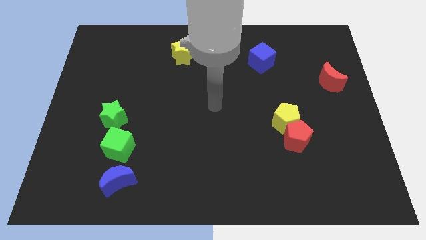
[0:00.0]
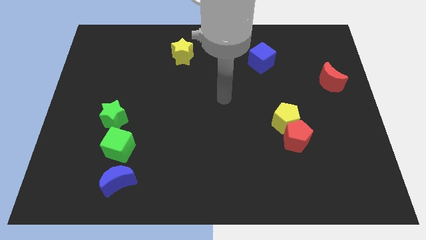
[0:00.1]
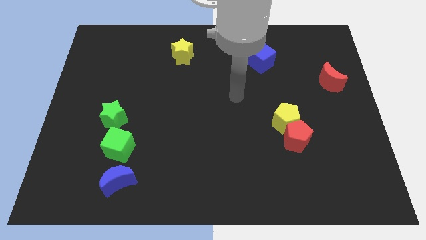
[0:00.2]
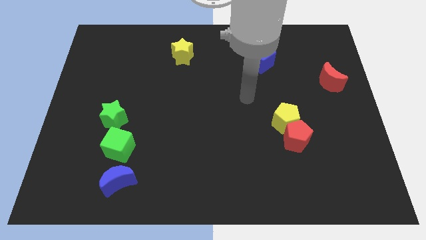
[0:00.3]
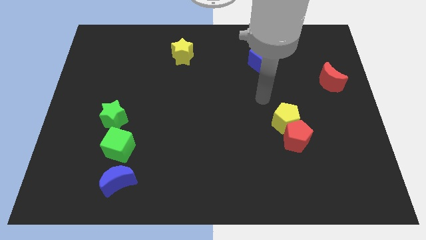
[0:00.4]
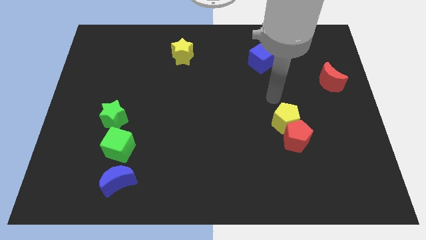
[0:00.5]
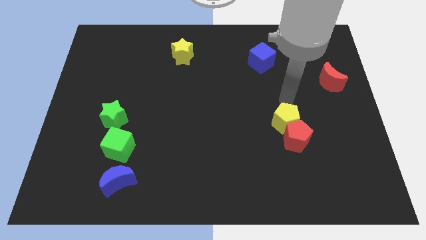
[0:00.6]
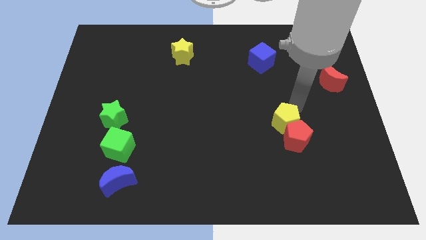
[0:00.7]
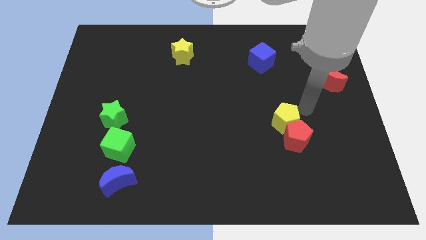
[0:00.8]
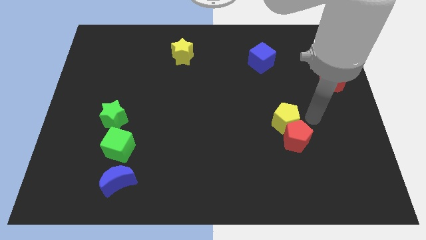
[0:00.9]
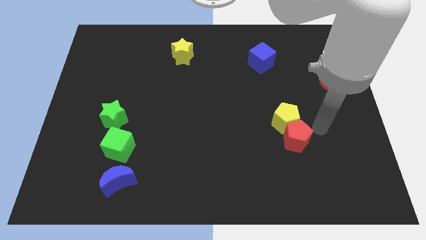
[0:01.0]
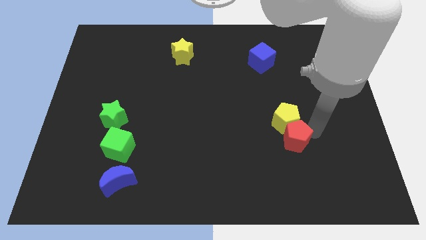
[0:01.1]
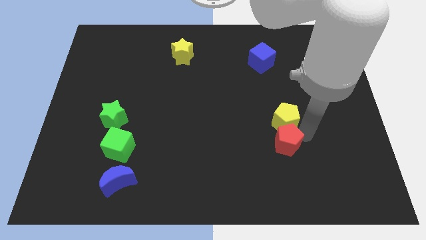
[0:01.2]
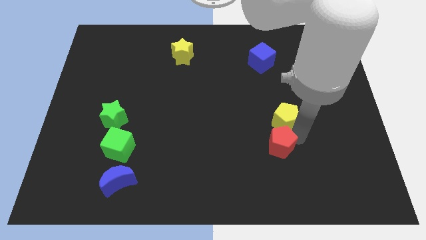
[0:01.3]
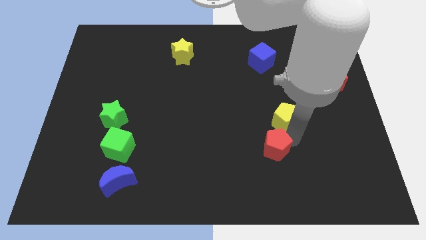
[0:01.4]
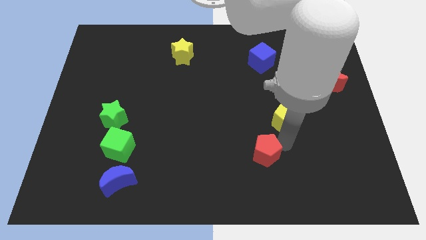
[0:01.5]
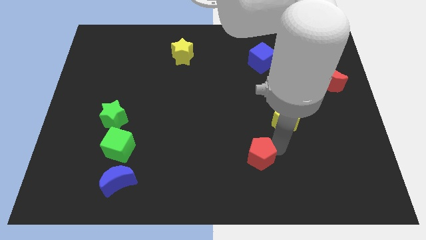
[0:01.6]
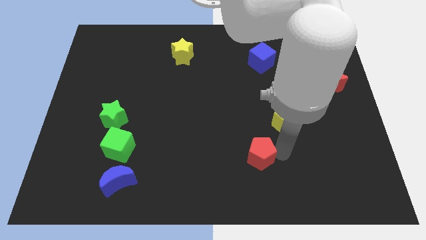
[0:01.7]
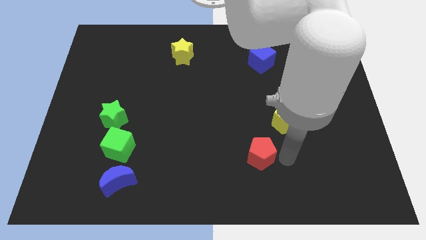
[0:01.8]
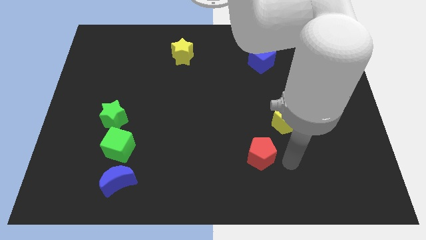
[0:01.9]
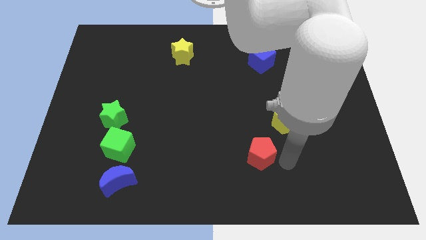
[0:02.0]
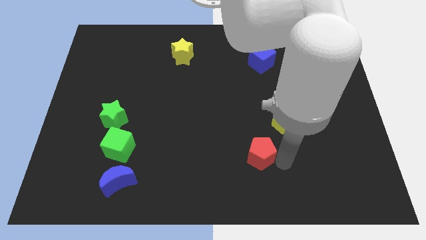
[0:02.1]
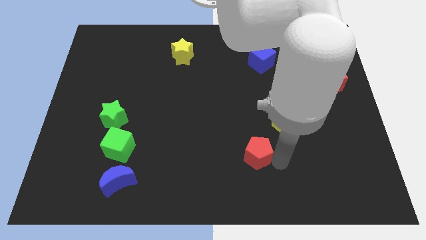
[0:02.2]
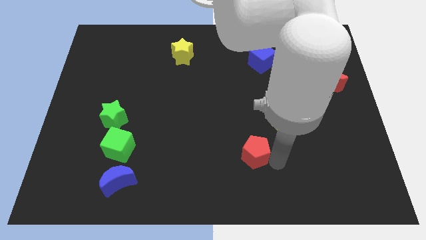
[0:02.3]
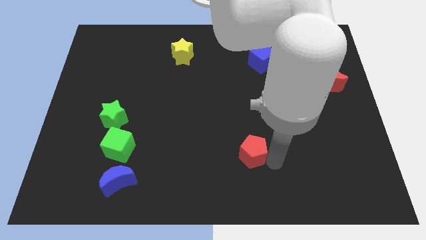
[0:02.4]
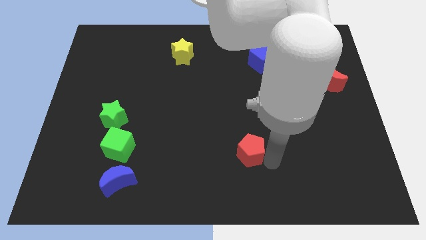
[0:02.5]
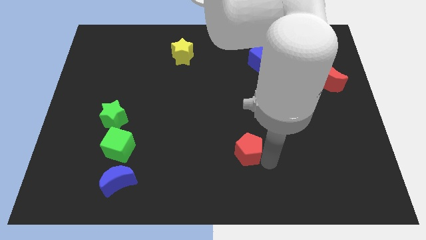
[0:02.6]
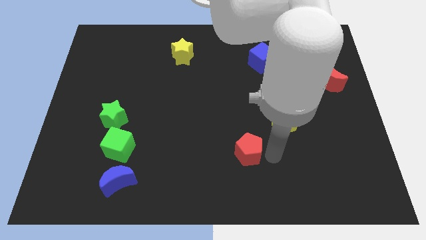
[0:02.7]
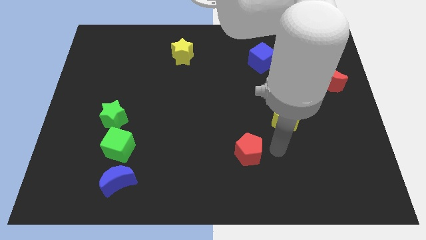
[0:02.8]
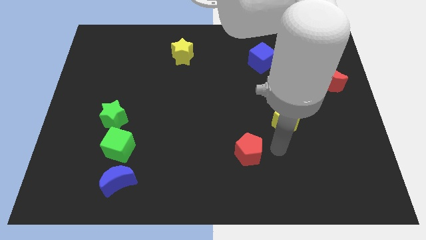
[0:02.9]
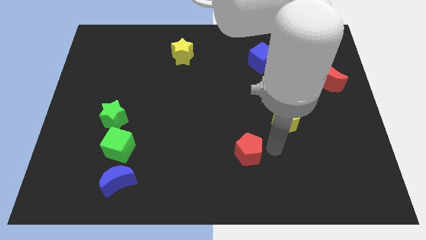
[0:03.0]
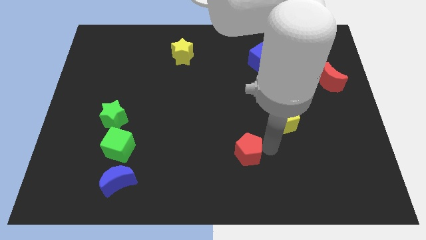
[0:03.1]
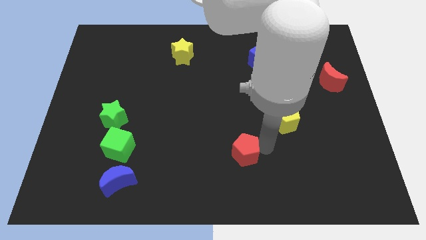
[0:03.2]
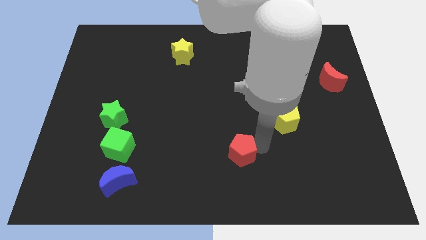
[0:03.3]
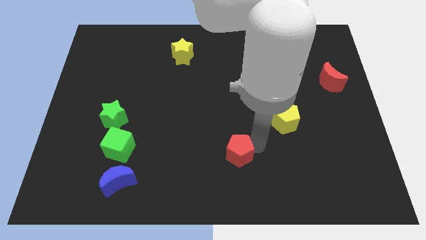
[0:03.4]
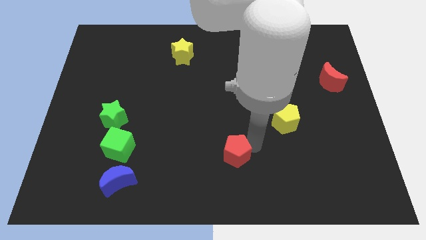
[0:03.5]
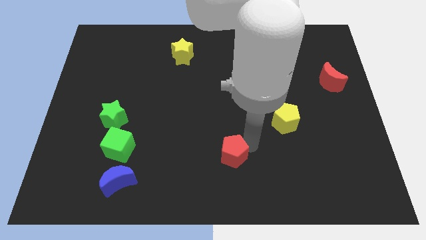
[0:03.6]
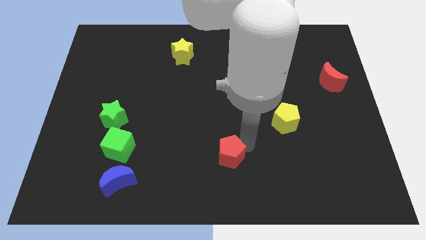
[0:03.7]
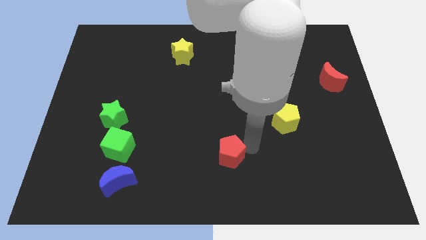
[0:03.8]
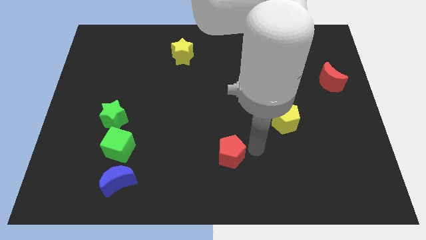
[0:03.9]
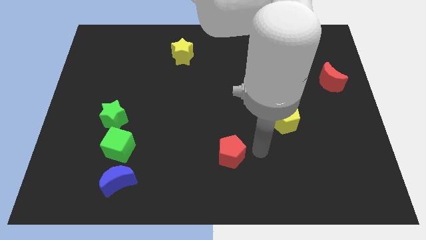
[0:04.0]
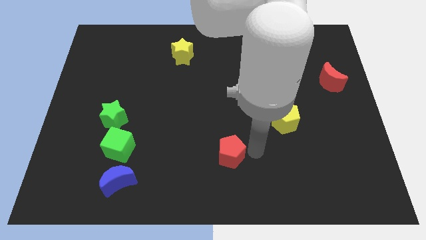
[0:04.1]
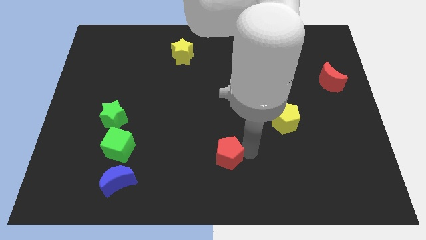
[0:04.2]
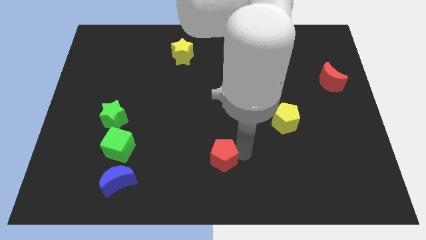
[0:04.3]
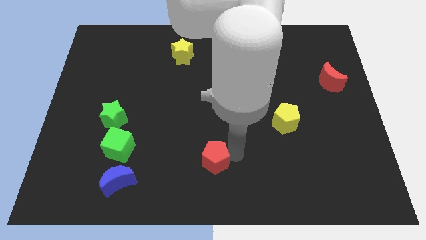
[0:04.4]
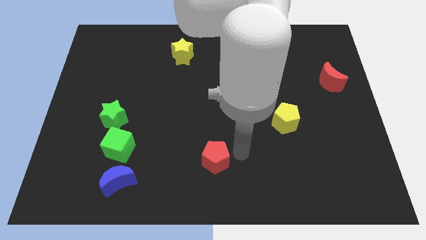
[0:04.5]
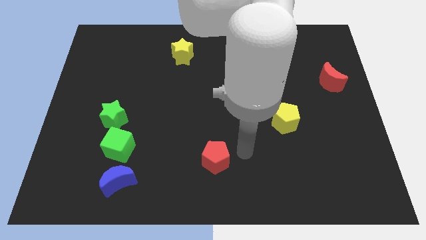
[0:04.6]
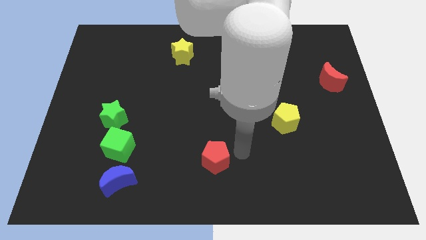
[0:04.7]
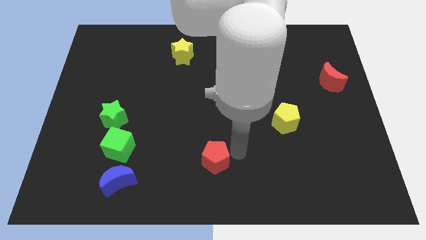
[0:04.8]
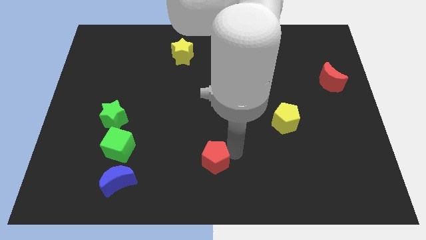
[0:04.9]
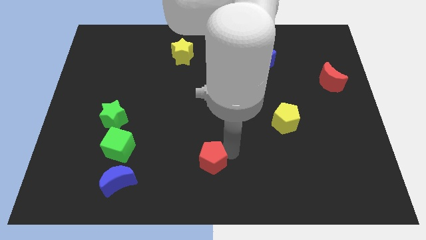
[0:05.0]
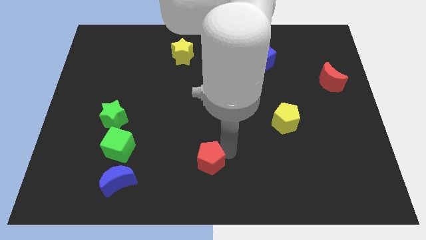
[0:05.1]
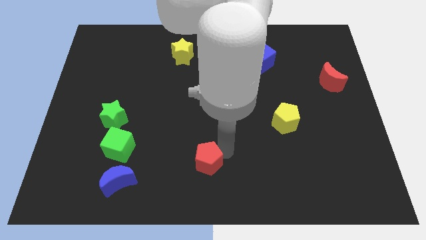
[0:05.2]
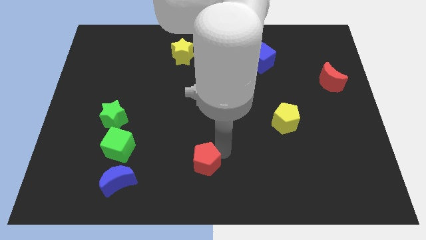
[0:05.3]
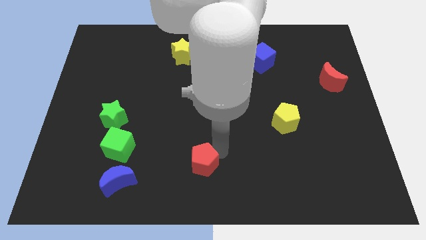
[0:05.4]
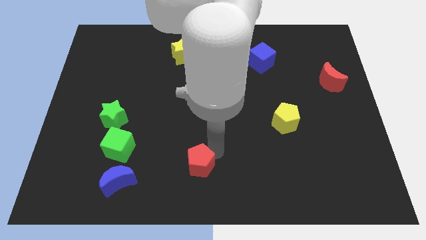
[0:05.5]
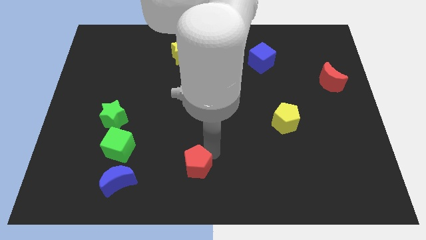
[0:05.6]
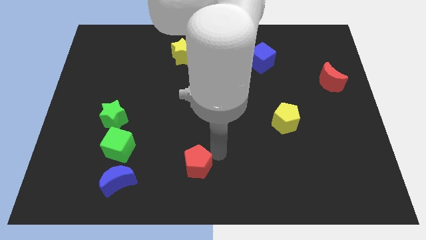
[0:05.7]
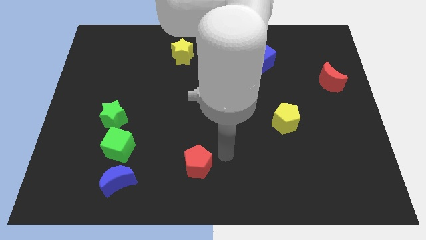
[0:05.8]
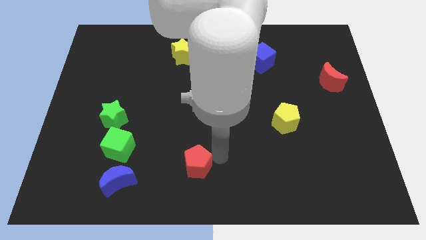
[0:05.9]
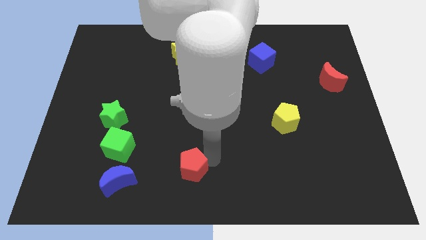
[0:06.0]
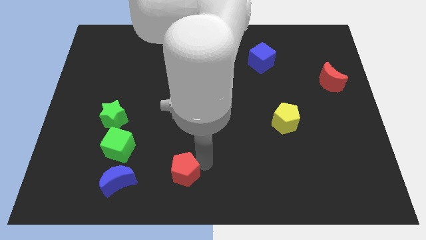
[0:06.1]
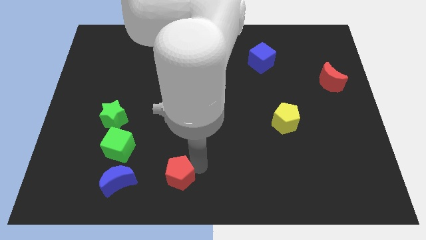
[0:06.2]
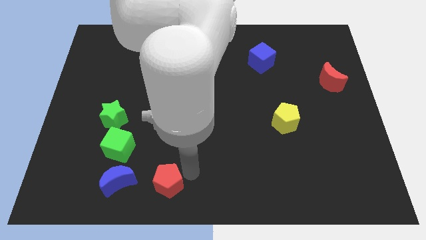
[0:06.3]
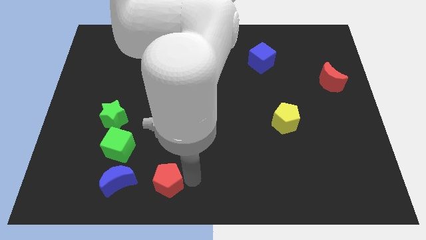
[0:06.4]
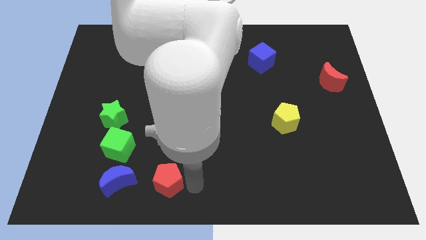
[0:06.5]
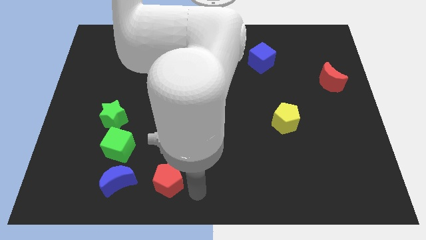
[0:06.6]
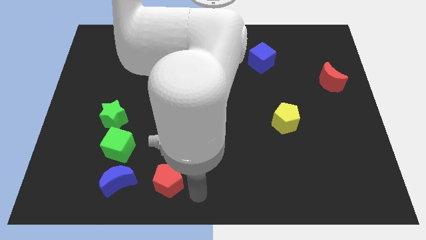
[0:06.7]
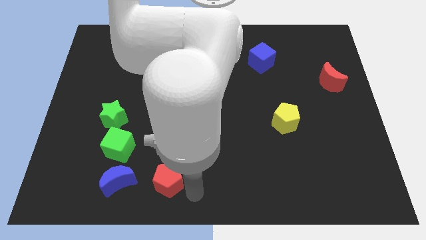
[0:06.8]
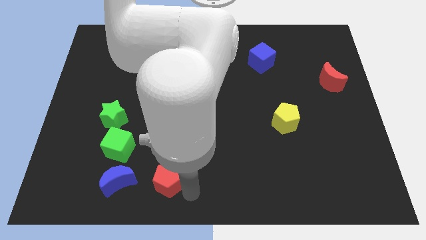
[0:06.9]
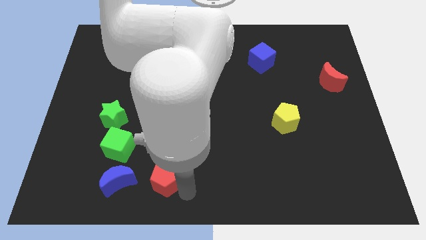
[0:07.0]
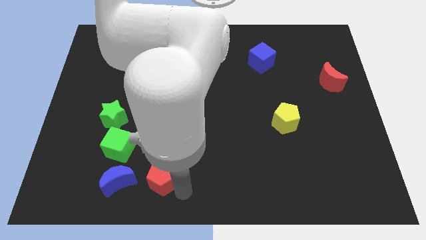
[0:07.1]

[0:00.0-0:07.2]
slide the red pentagon diagonally down and to the right of the green cube
